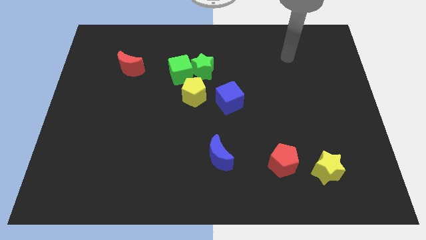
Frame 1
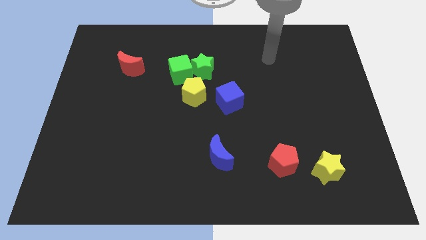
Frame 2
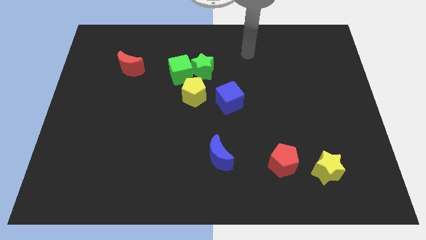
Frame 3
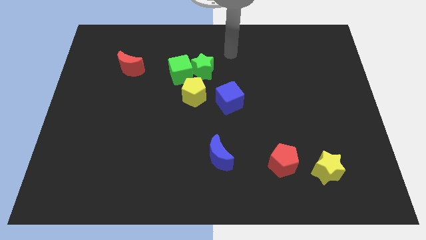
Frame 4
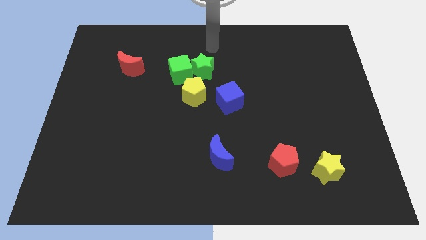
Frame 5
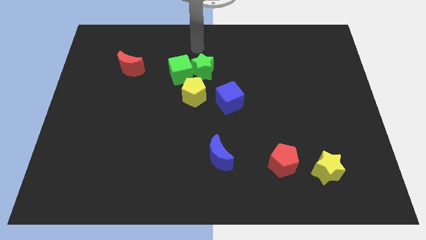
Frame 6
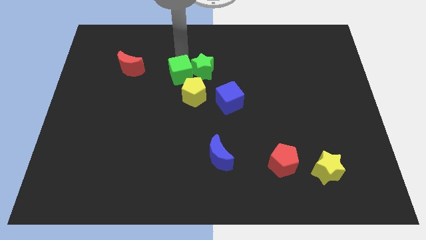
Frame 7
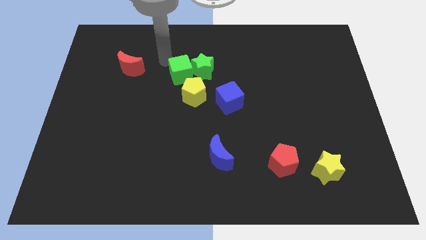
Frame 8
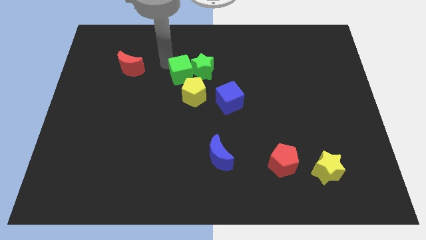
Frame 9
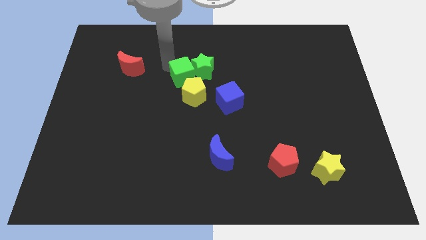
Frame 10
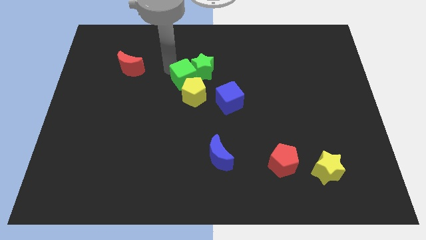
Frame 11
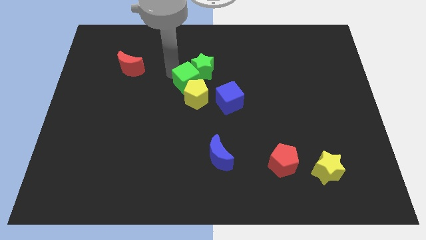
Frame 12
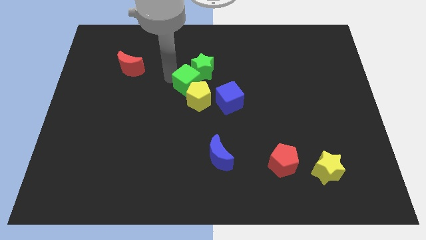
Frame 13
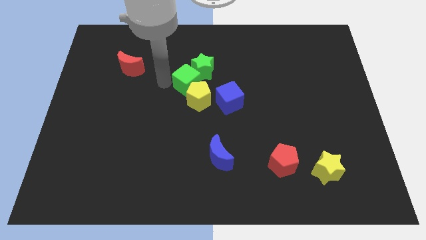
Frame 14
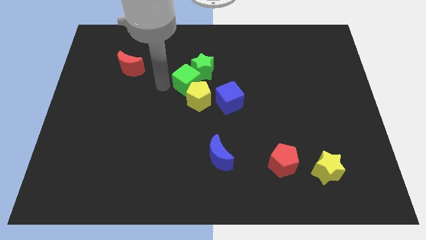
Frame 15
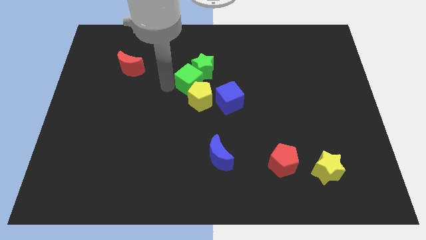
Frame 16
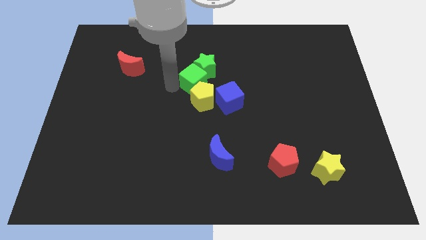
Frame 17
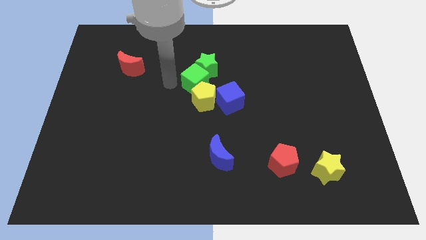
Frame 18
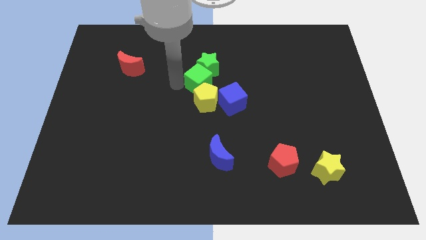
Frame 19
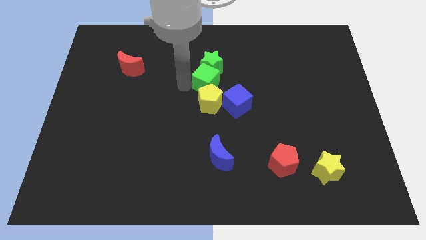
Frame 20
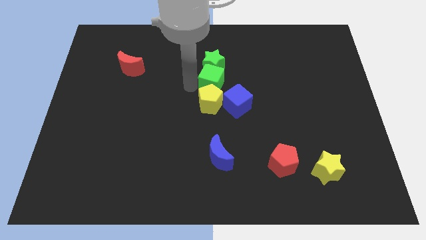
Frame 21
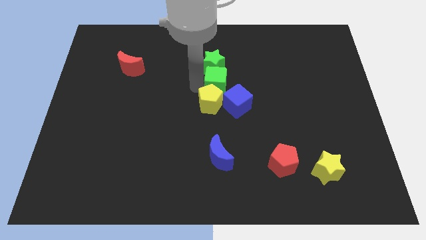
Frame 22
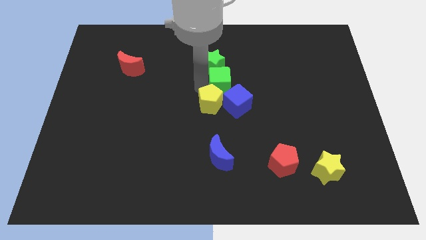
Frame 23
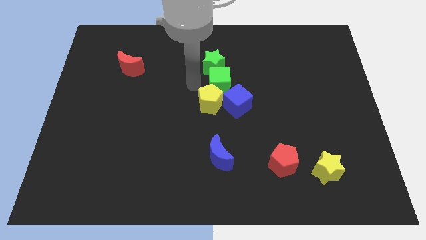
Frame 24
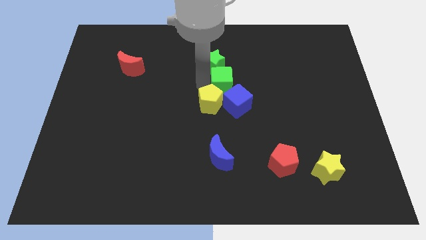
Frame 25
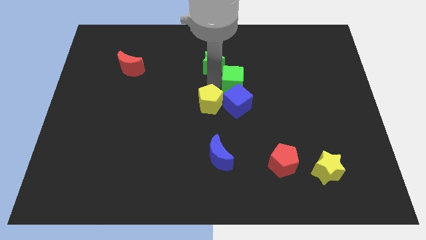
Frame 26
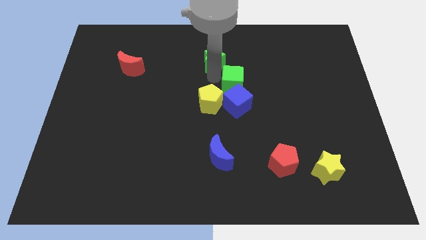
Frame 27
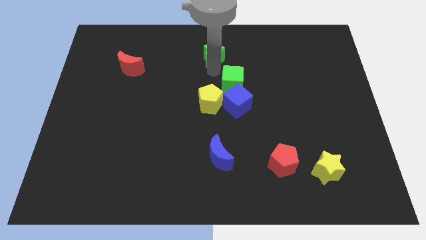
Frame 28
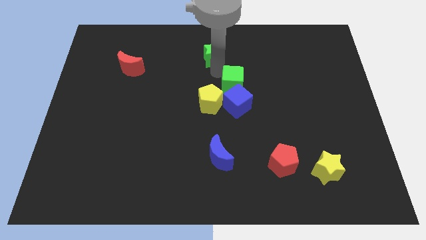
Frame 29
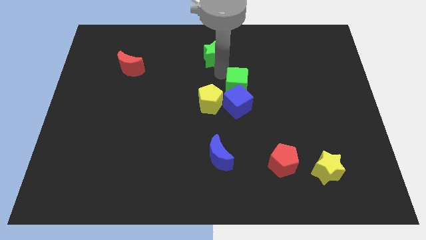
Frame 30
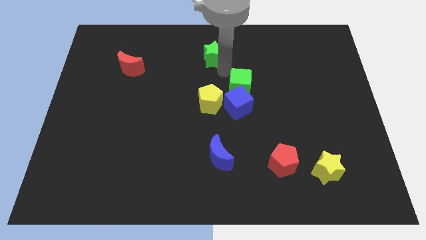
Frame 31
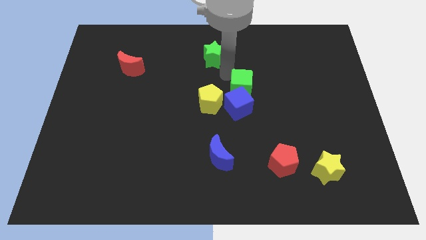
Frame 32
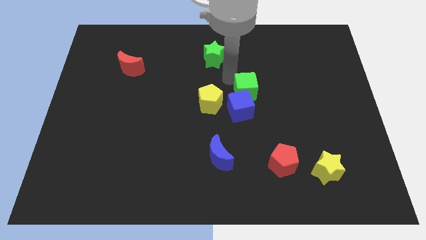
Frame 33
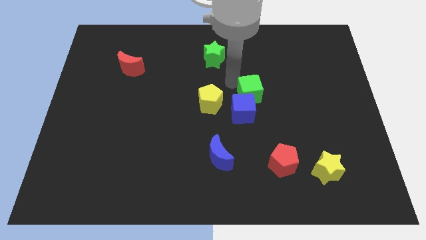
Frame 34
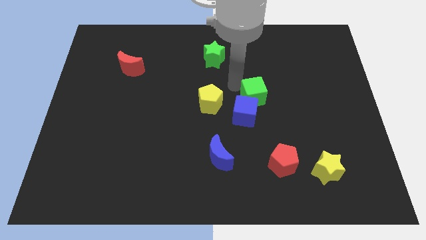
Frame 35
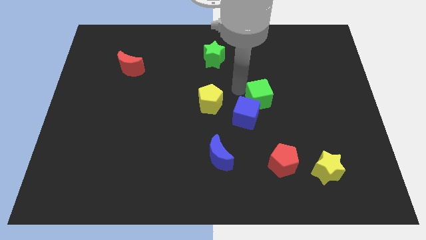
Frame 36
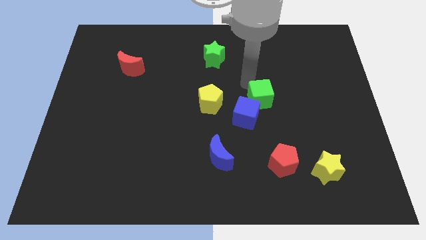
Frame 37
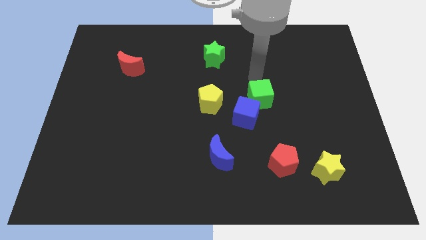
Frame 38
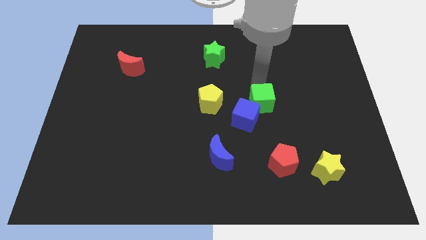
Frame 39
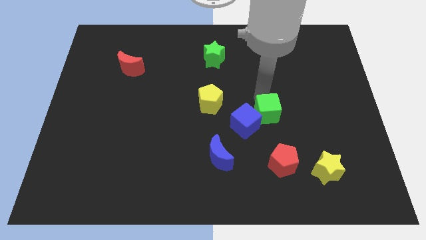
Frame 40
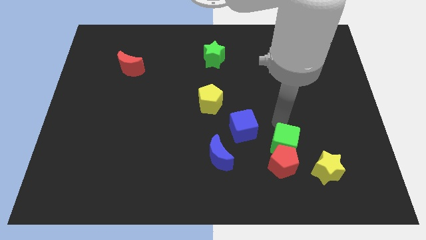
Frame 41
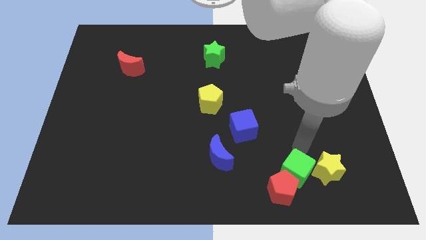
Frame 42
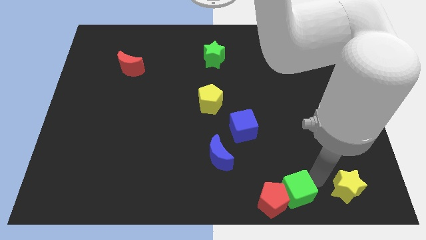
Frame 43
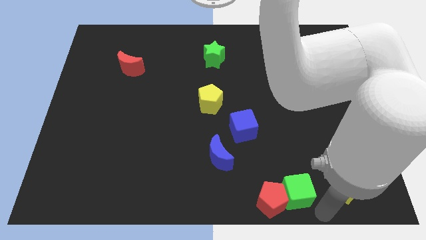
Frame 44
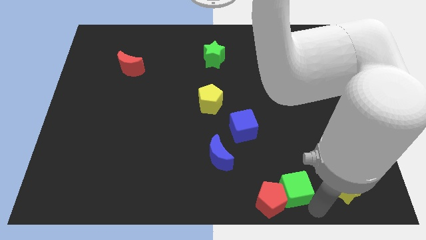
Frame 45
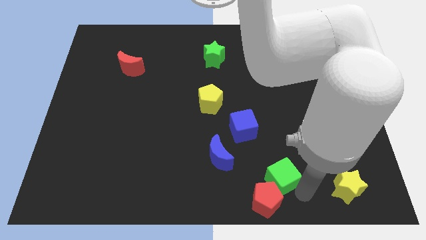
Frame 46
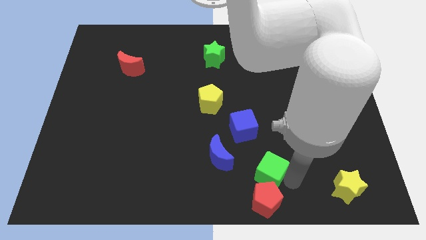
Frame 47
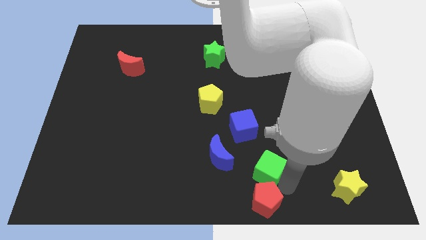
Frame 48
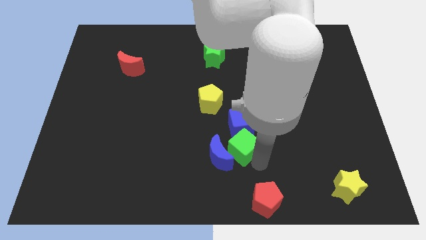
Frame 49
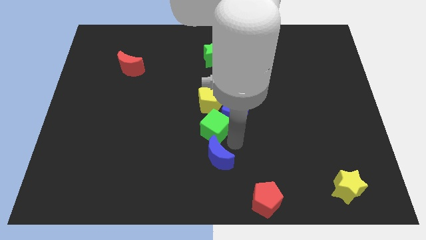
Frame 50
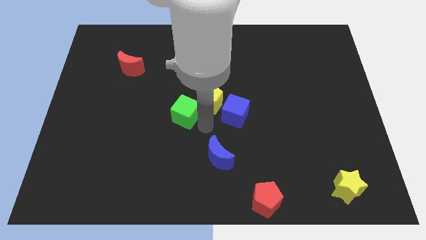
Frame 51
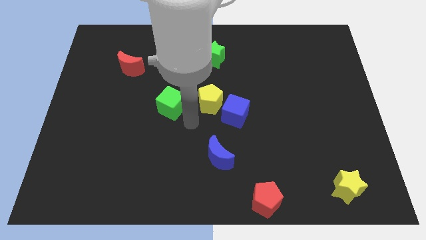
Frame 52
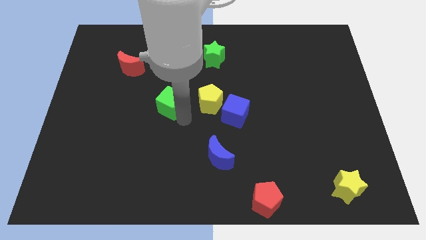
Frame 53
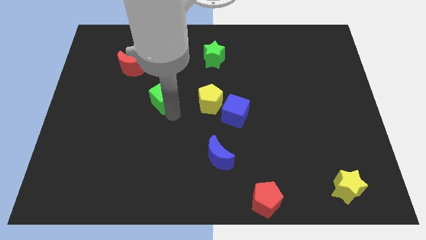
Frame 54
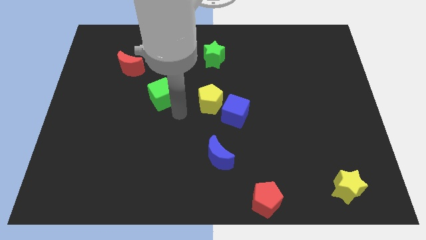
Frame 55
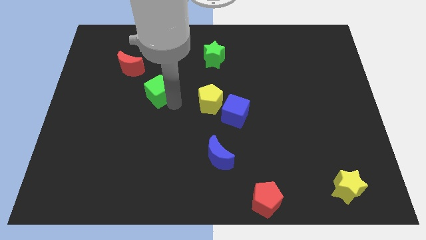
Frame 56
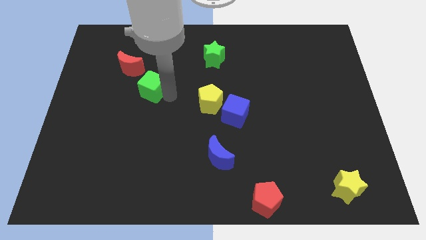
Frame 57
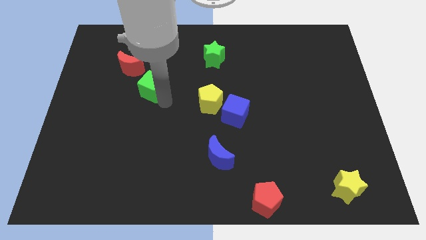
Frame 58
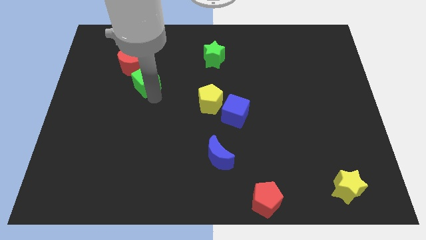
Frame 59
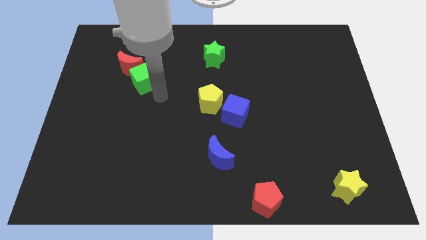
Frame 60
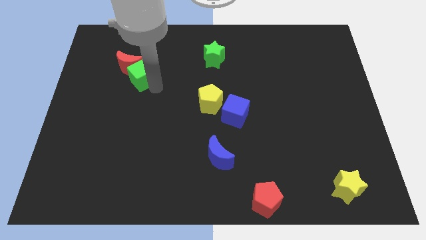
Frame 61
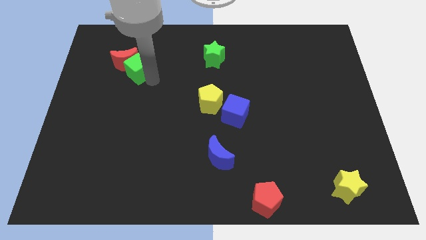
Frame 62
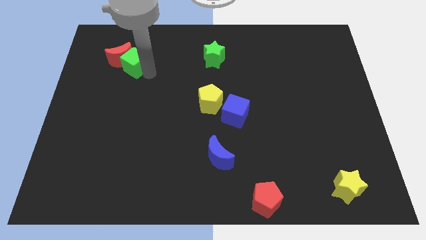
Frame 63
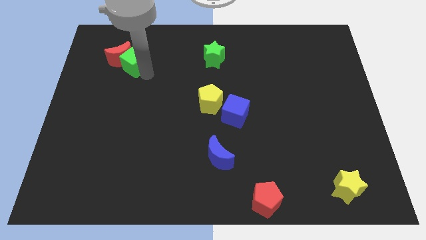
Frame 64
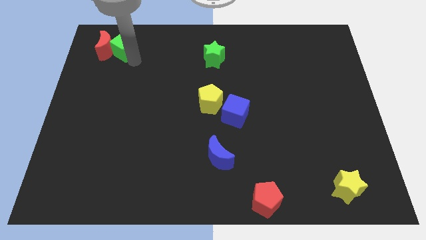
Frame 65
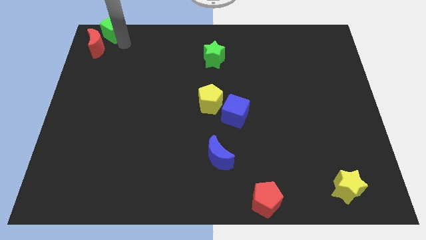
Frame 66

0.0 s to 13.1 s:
move the green cube to the top left
